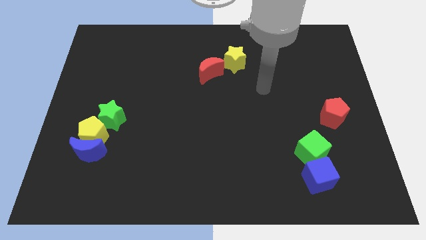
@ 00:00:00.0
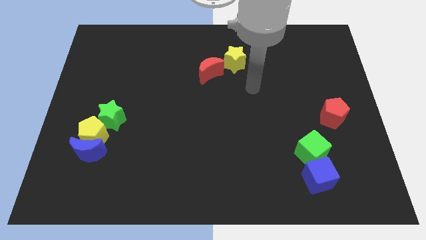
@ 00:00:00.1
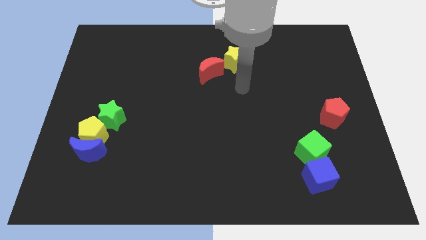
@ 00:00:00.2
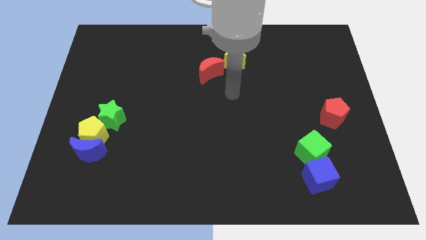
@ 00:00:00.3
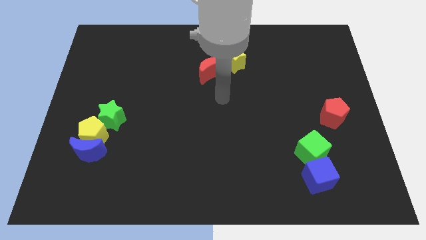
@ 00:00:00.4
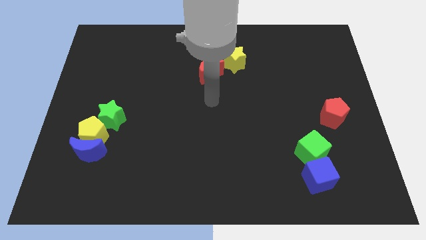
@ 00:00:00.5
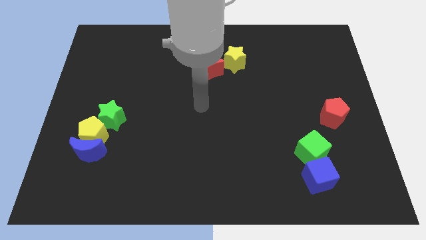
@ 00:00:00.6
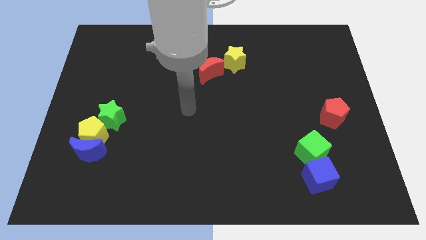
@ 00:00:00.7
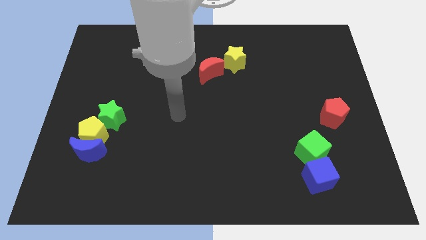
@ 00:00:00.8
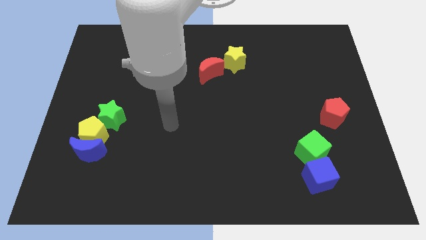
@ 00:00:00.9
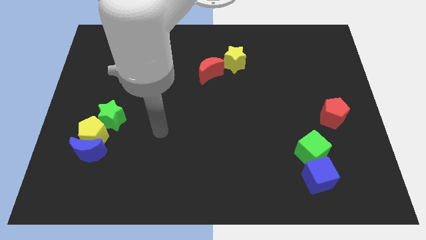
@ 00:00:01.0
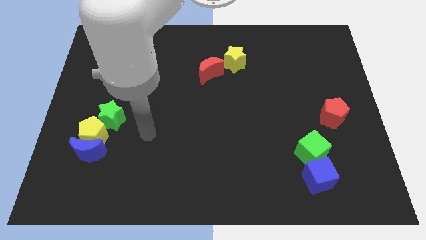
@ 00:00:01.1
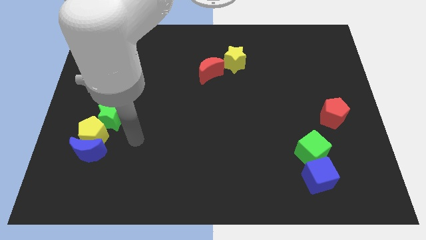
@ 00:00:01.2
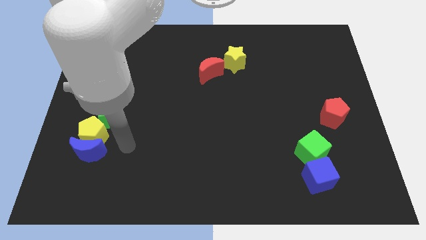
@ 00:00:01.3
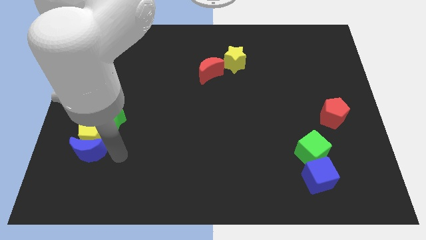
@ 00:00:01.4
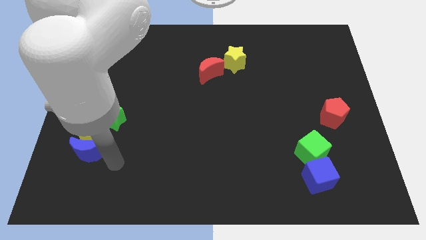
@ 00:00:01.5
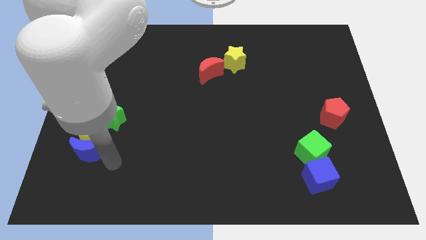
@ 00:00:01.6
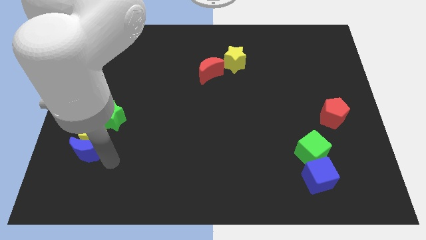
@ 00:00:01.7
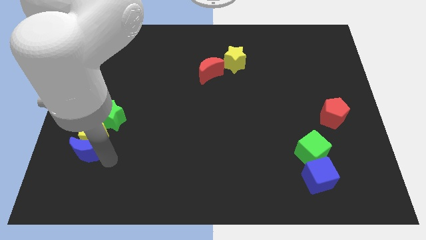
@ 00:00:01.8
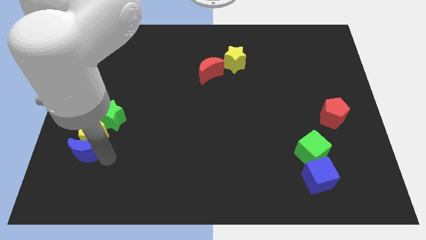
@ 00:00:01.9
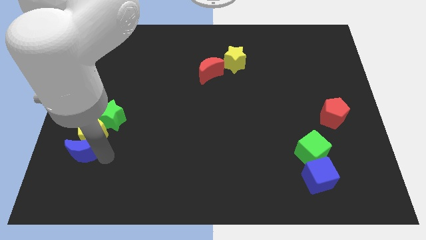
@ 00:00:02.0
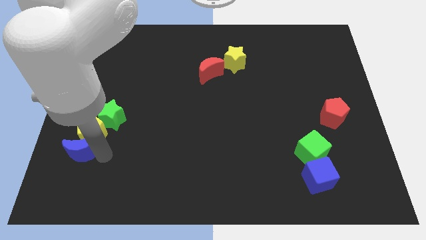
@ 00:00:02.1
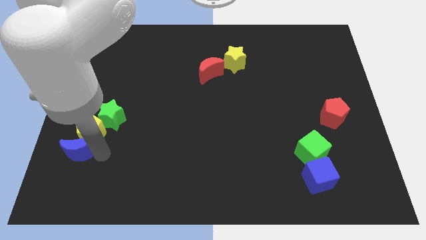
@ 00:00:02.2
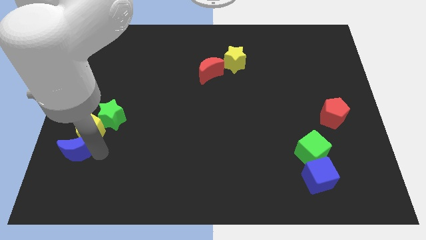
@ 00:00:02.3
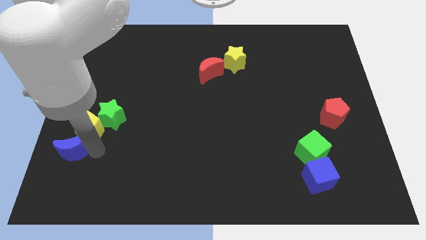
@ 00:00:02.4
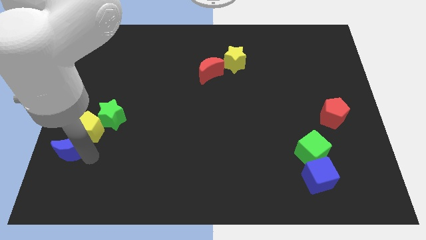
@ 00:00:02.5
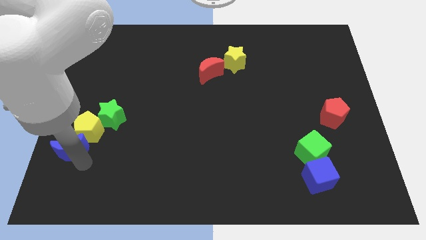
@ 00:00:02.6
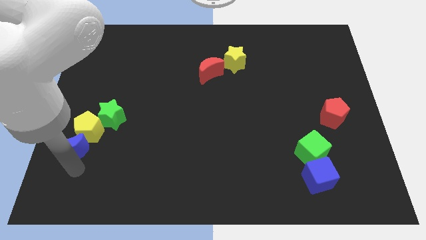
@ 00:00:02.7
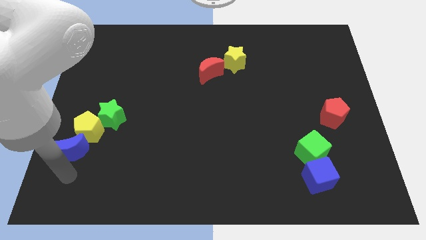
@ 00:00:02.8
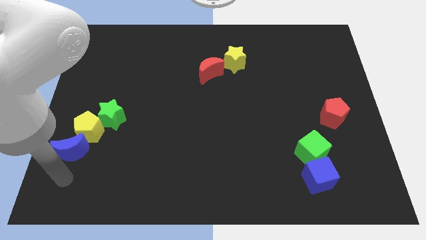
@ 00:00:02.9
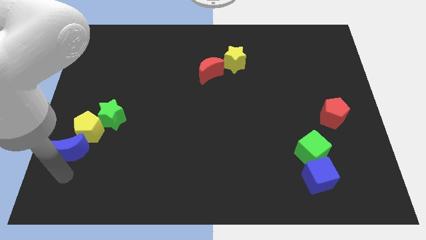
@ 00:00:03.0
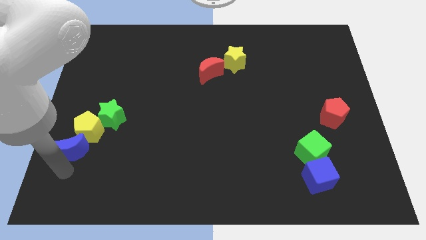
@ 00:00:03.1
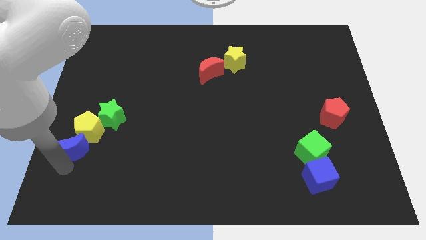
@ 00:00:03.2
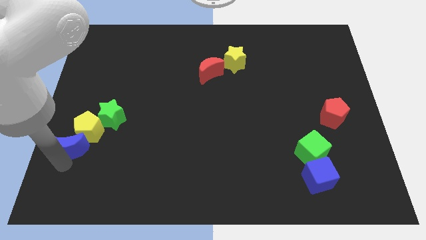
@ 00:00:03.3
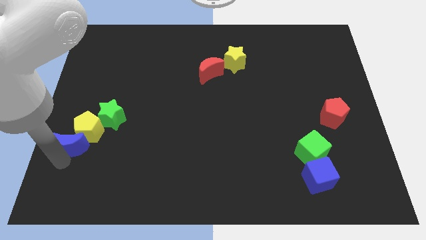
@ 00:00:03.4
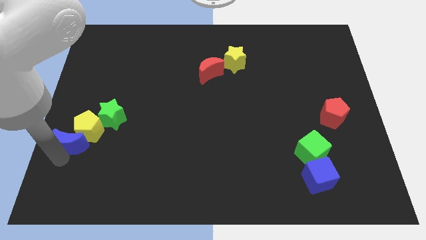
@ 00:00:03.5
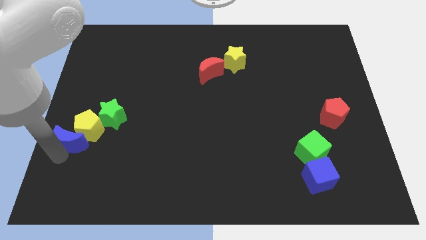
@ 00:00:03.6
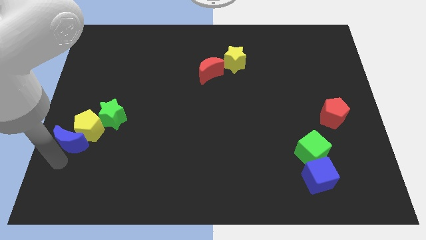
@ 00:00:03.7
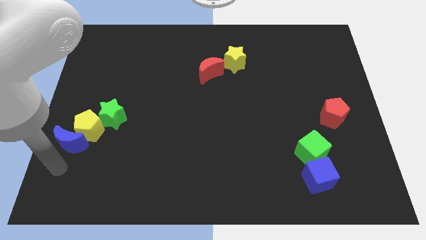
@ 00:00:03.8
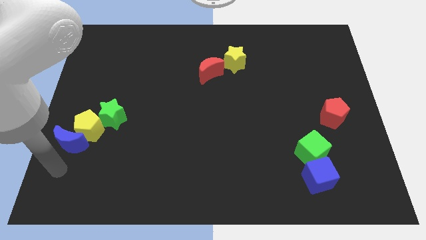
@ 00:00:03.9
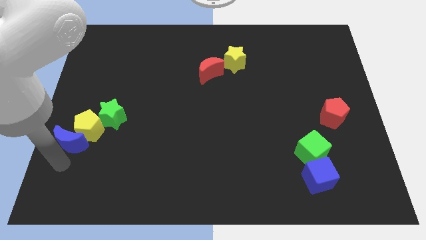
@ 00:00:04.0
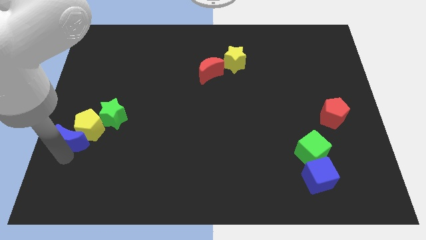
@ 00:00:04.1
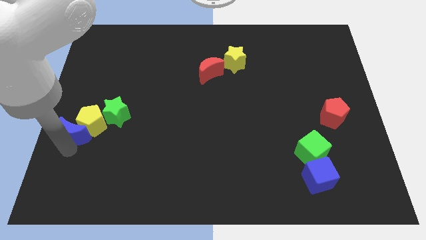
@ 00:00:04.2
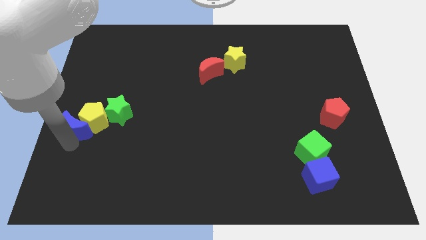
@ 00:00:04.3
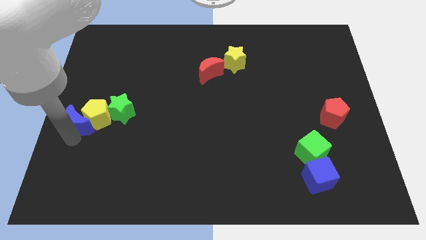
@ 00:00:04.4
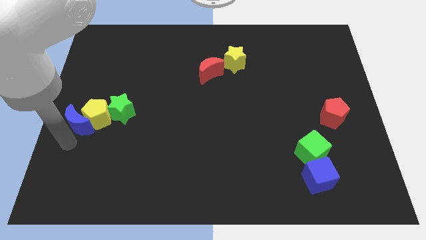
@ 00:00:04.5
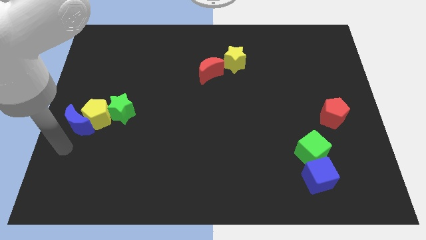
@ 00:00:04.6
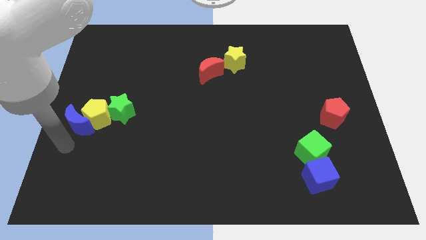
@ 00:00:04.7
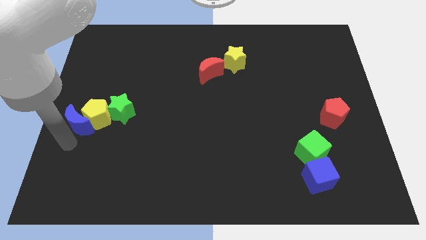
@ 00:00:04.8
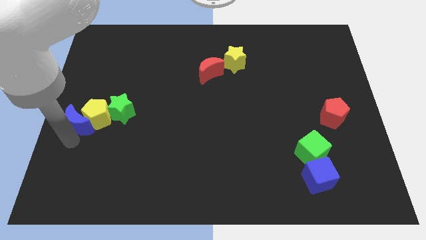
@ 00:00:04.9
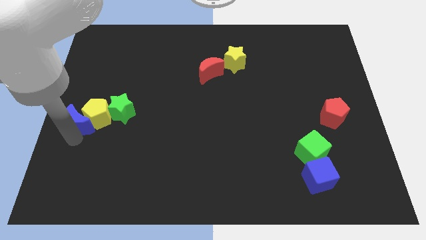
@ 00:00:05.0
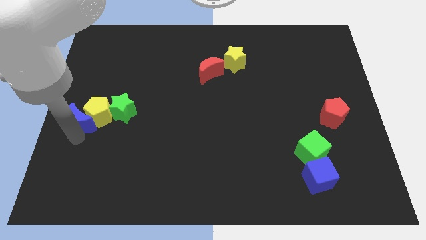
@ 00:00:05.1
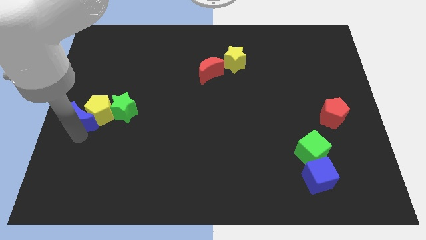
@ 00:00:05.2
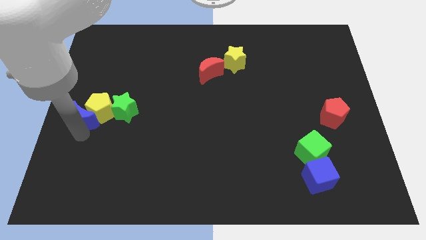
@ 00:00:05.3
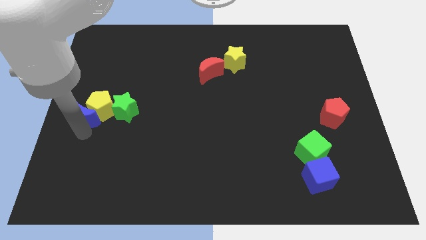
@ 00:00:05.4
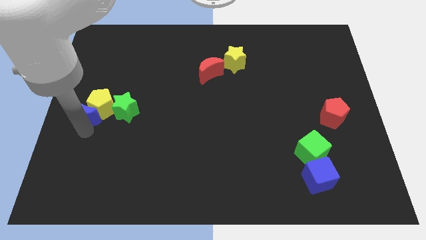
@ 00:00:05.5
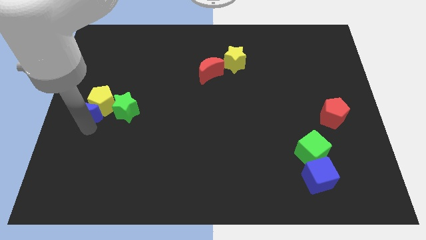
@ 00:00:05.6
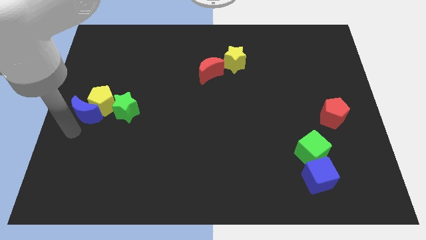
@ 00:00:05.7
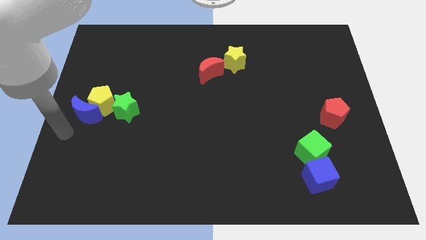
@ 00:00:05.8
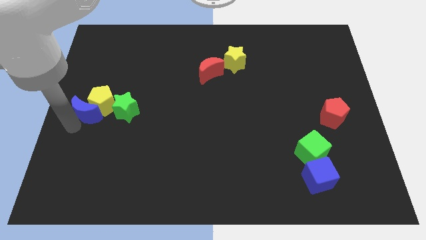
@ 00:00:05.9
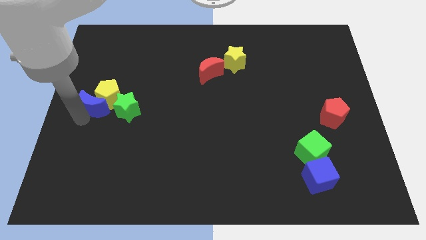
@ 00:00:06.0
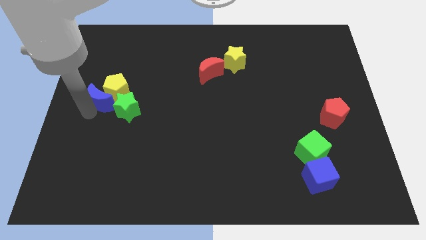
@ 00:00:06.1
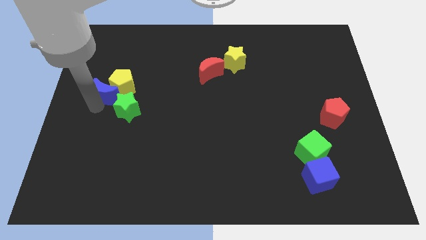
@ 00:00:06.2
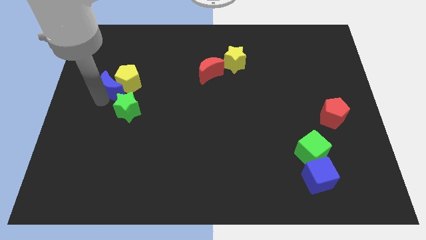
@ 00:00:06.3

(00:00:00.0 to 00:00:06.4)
push the blue moon to the top side of the green star
